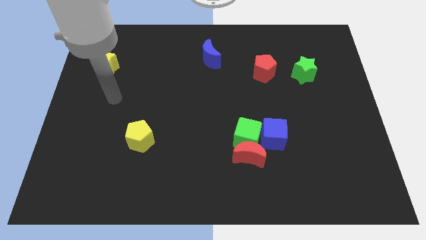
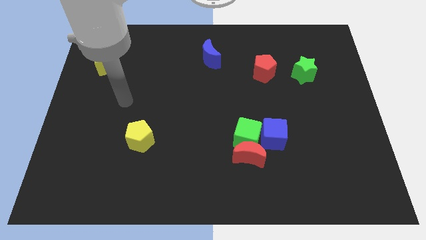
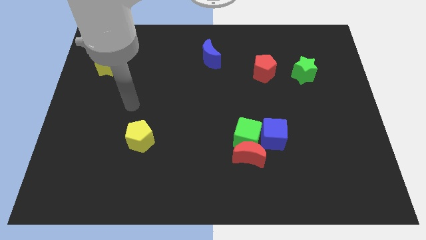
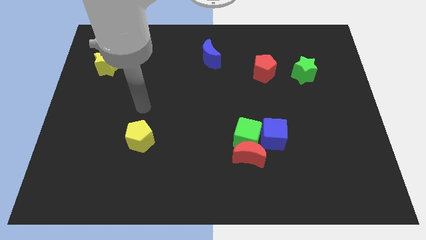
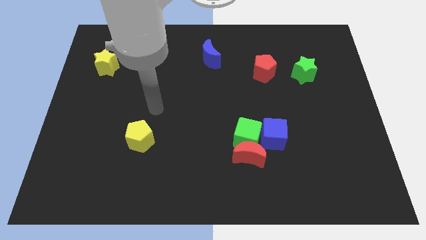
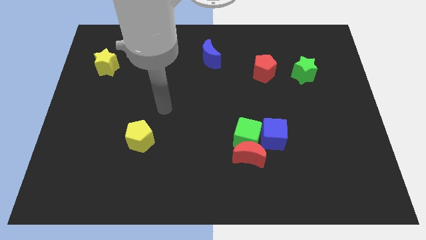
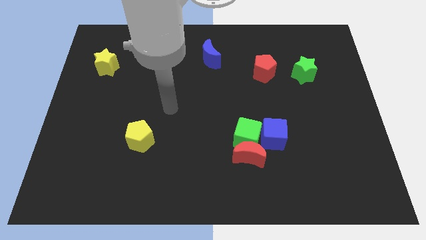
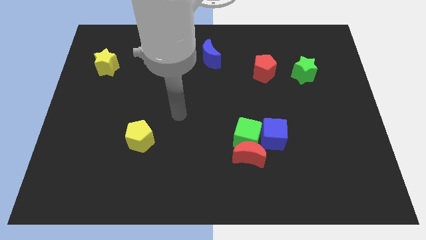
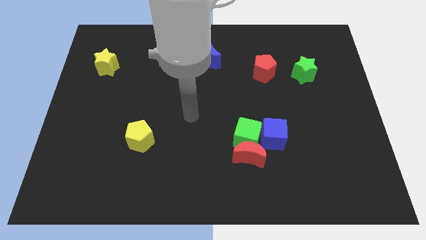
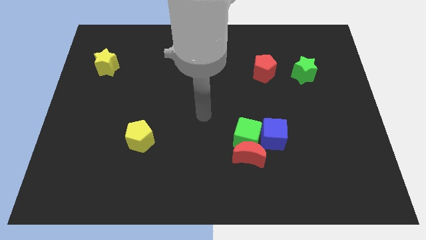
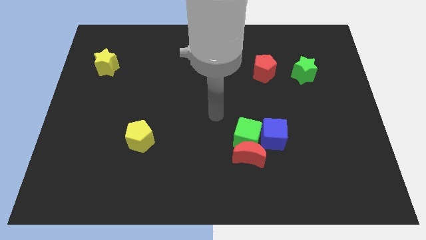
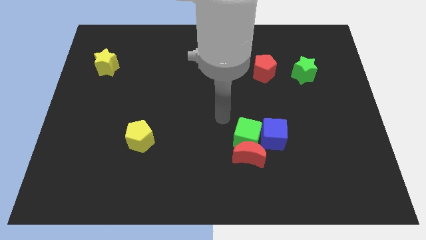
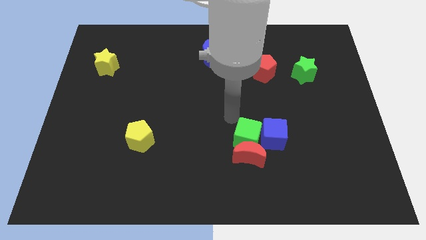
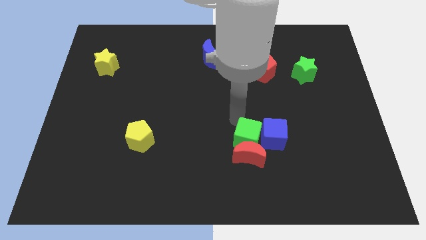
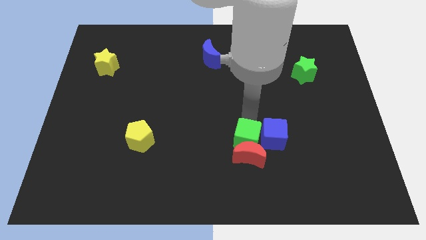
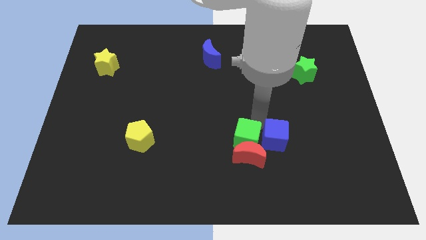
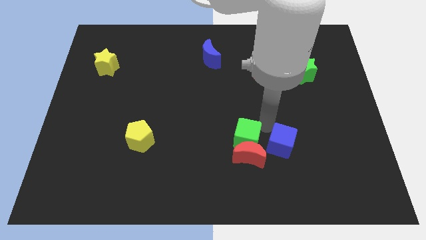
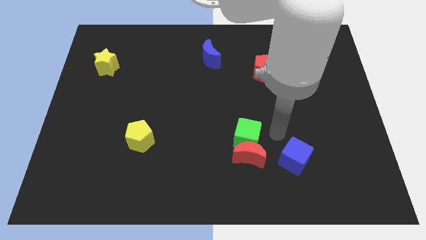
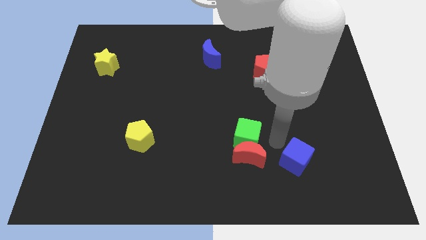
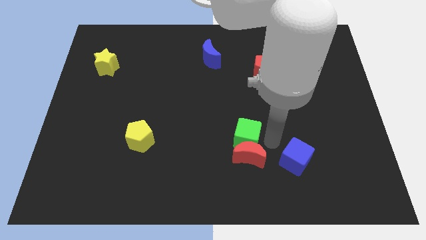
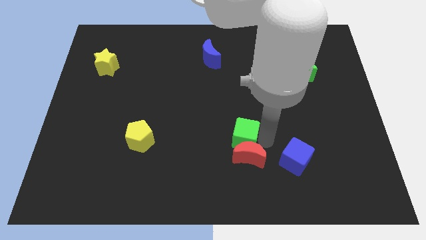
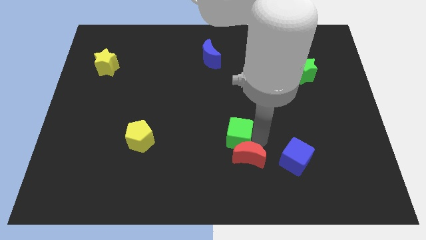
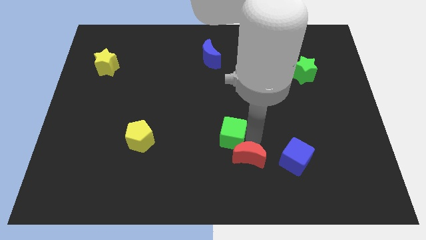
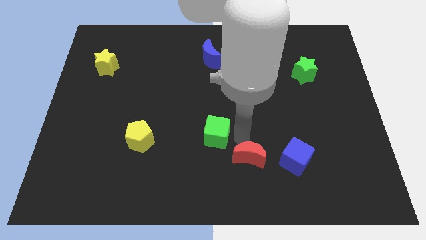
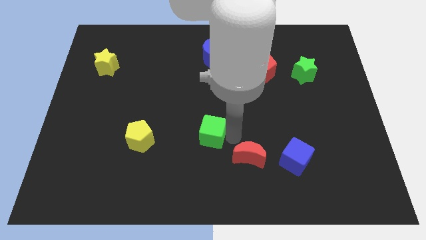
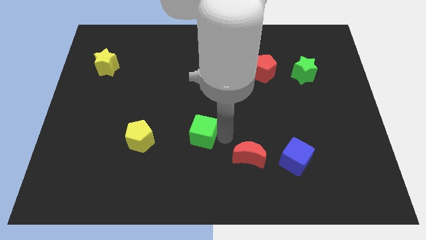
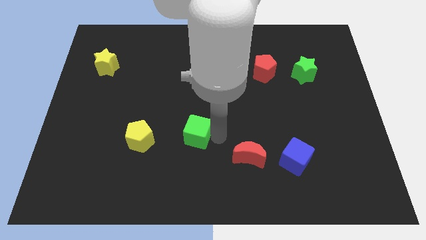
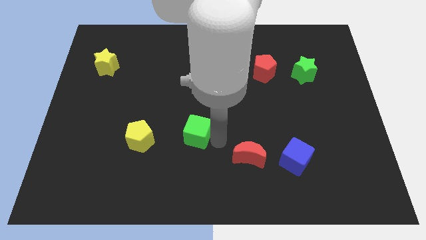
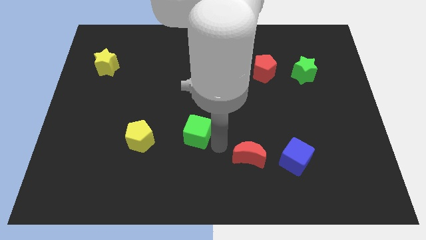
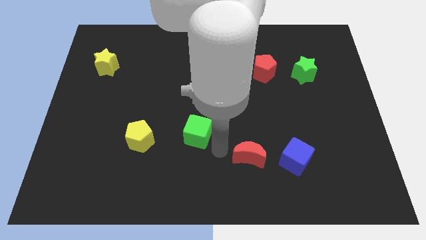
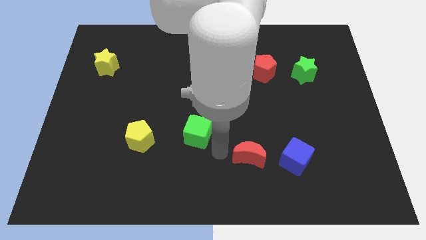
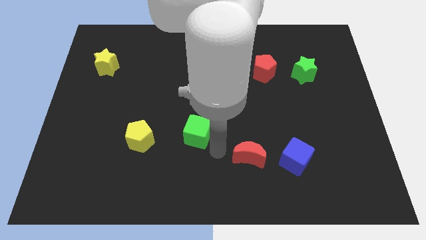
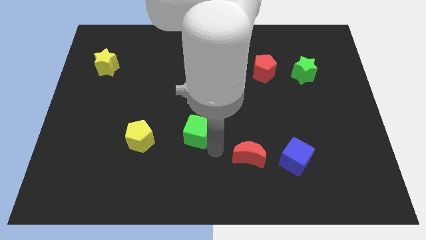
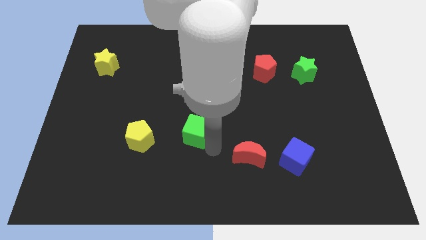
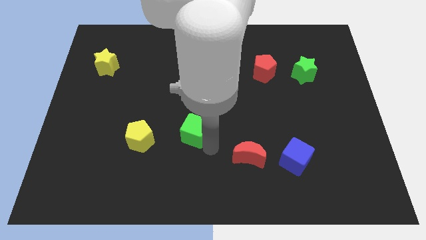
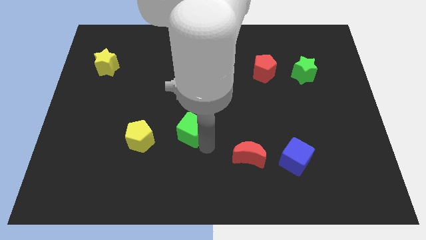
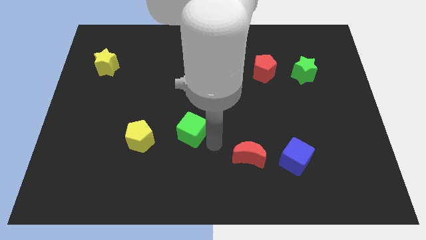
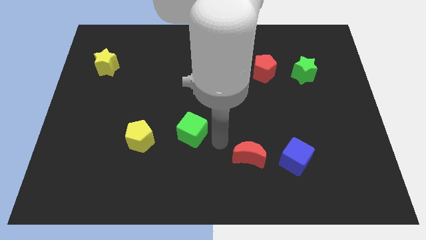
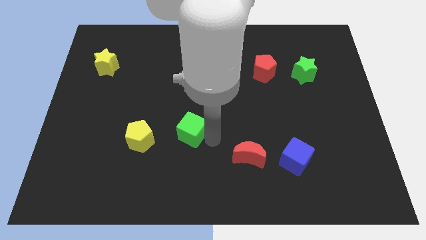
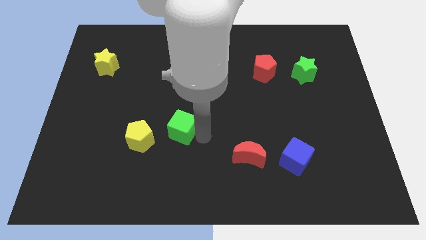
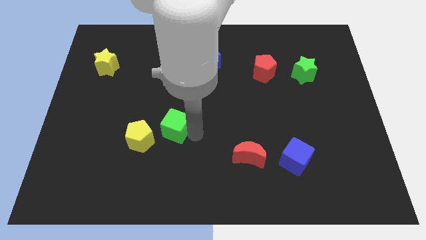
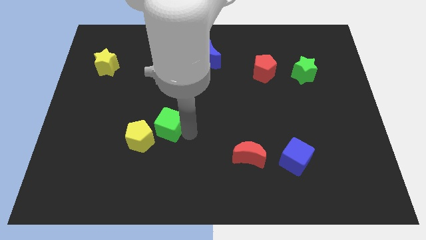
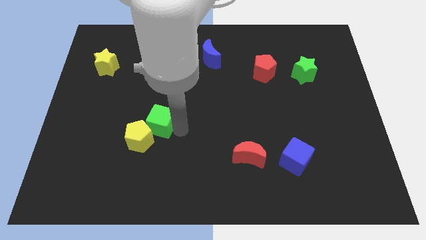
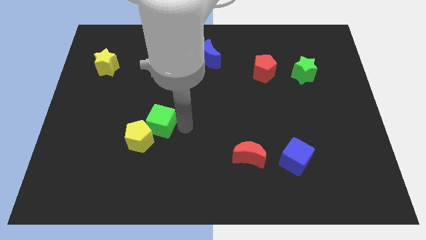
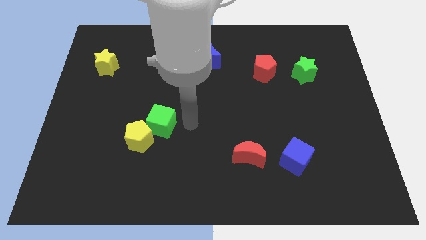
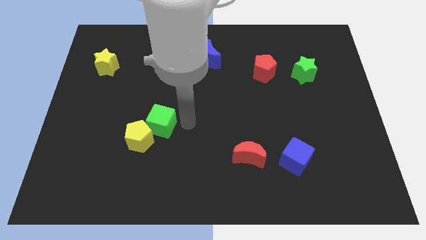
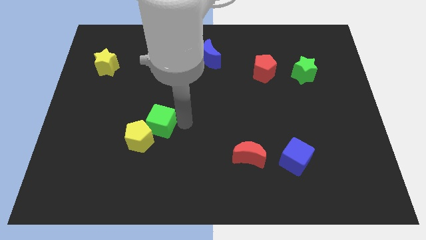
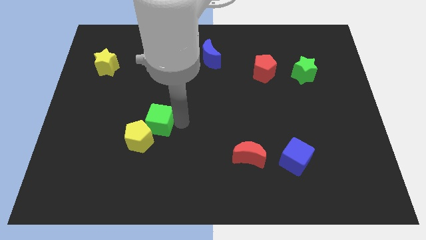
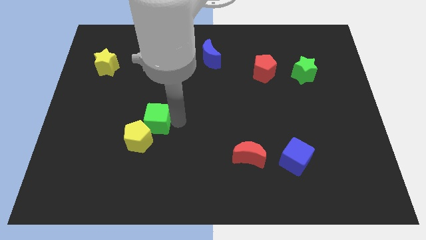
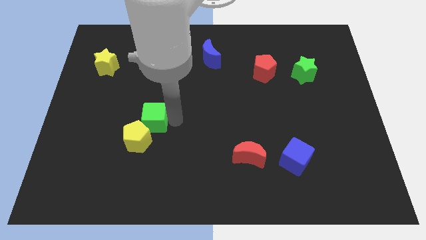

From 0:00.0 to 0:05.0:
move the green cube left

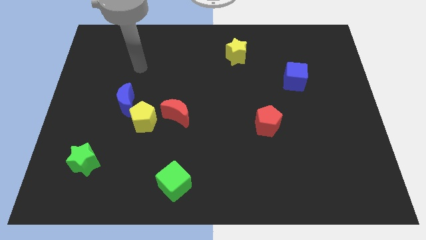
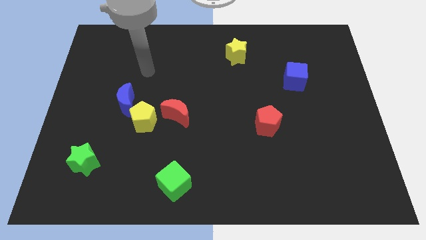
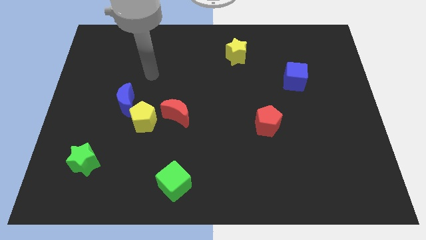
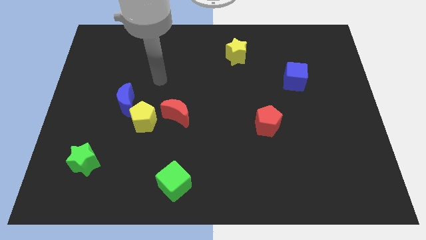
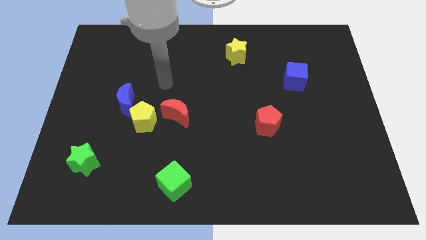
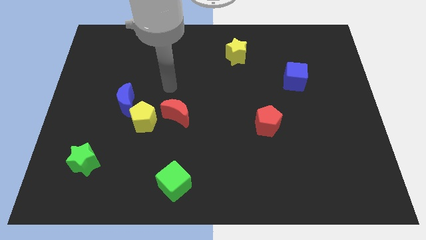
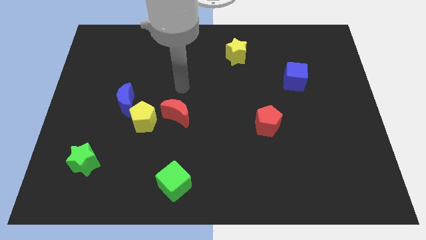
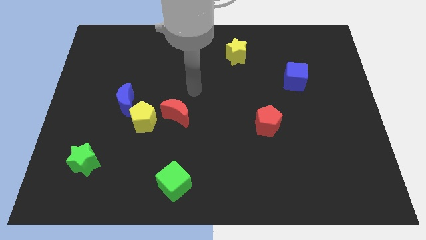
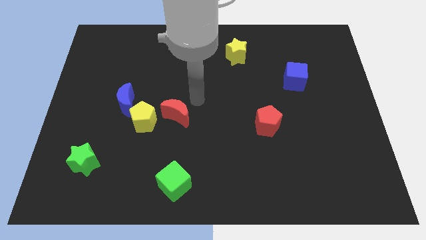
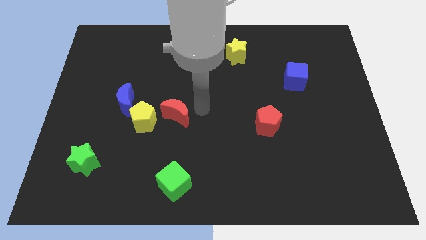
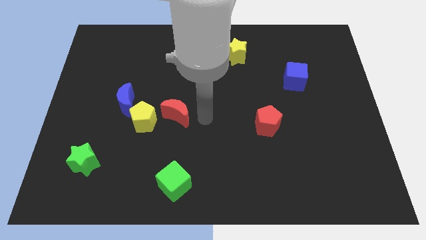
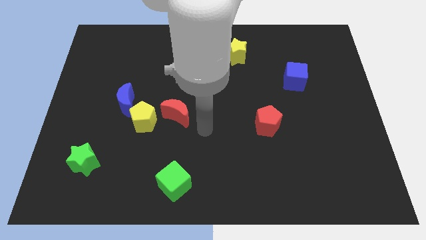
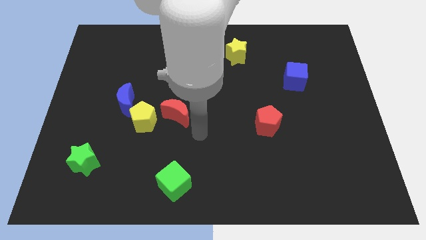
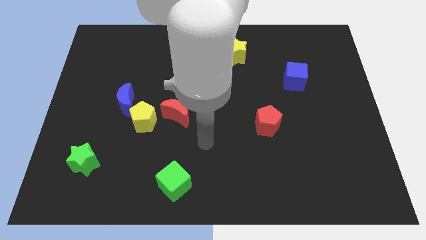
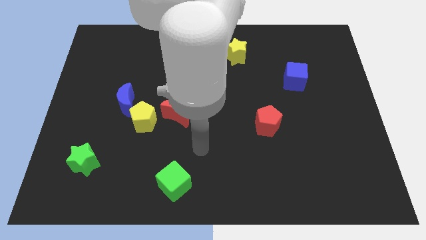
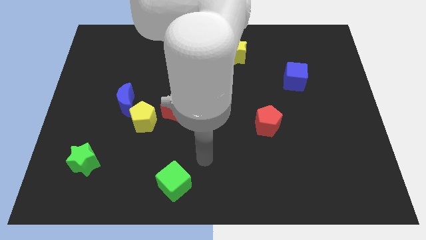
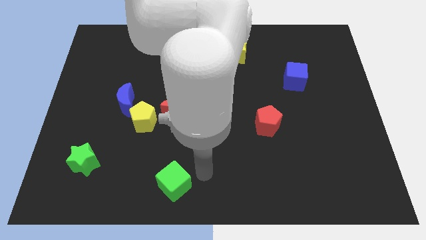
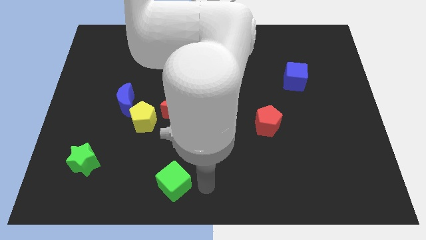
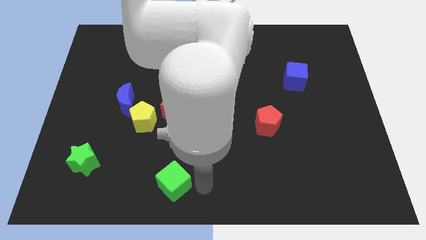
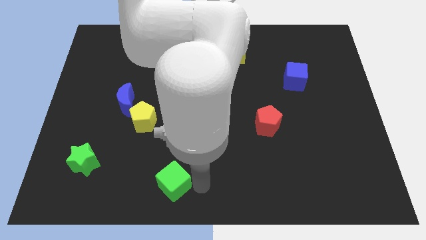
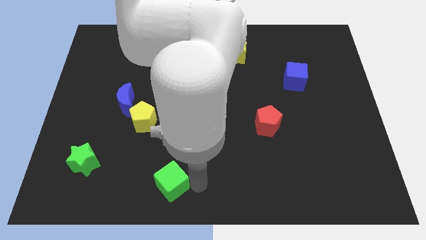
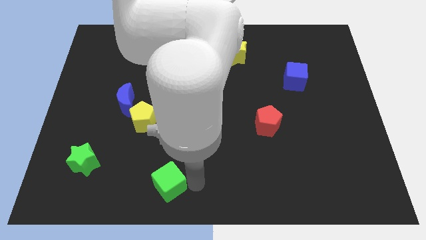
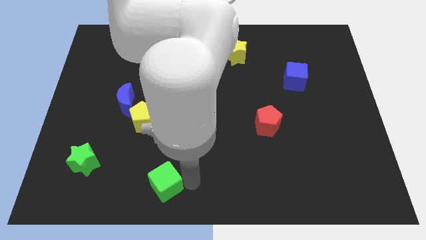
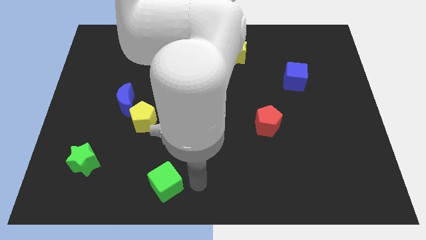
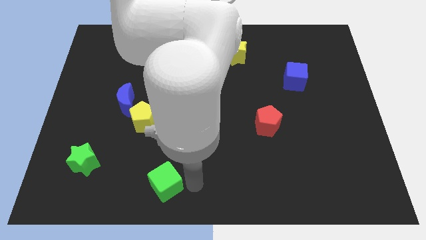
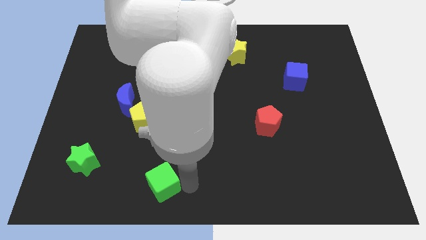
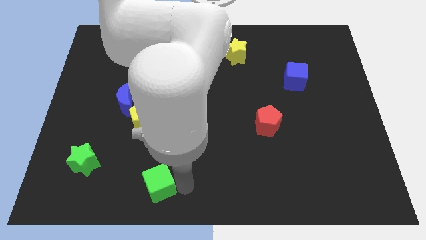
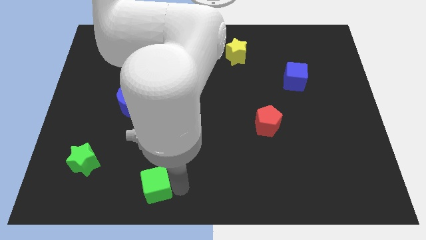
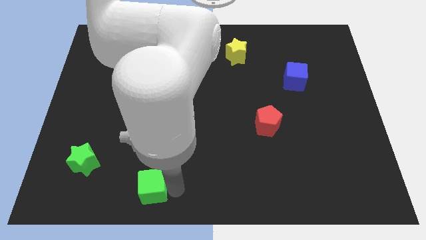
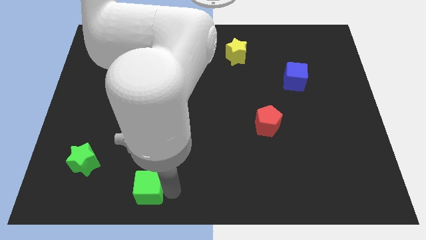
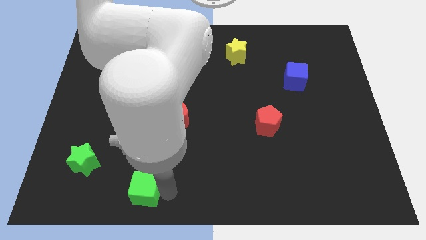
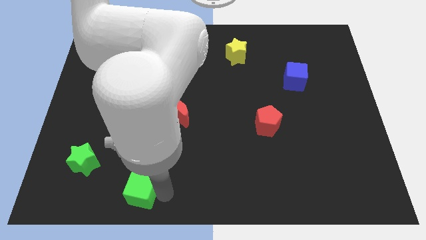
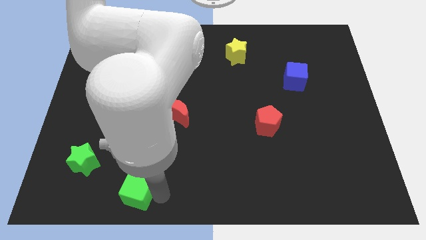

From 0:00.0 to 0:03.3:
slightly move the green cube to the left
